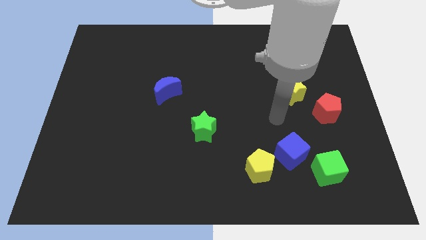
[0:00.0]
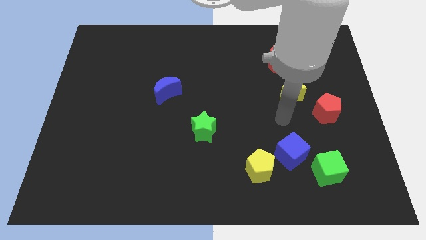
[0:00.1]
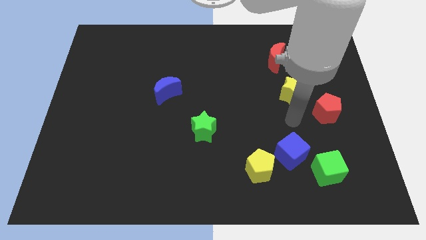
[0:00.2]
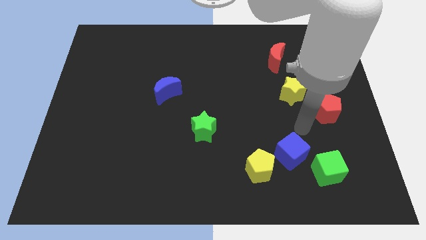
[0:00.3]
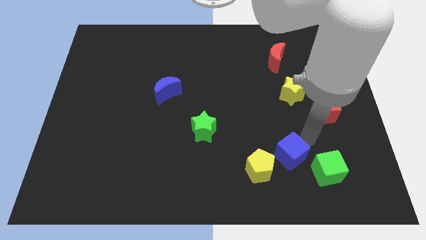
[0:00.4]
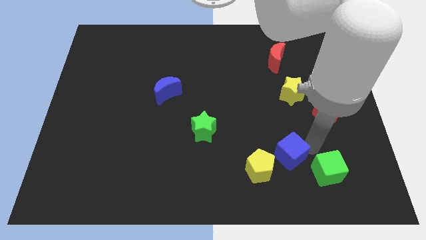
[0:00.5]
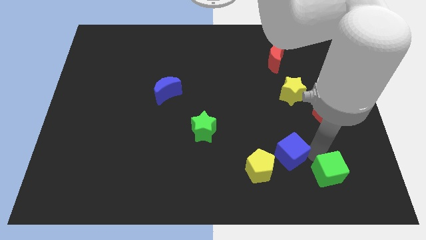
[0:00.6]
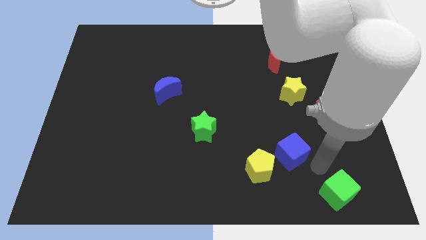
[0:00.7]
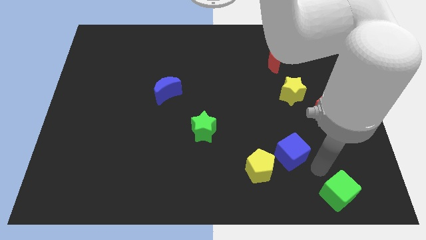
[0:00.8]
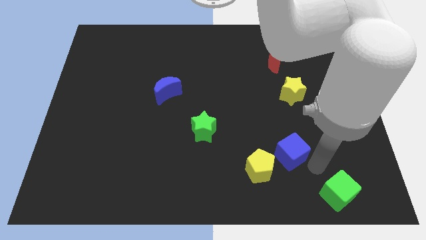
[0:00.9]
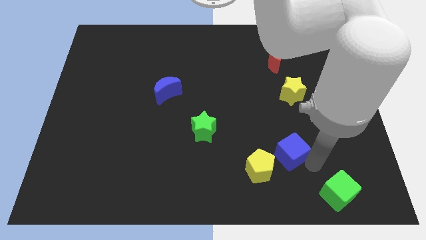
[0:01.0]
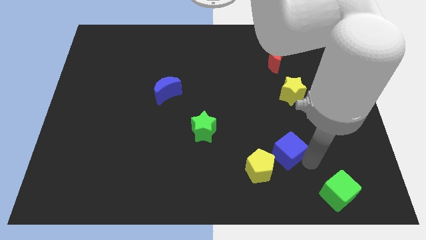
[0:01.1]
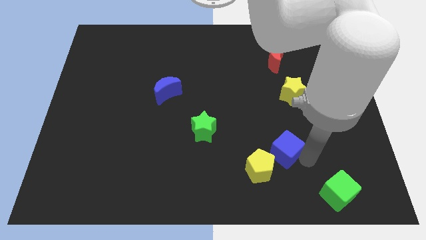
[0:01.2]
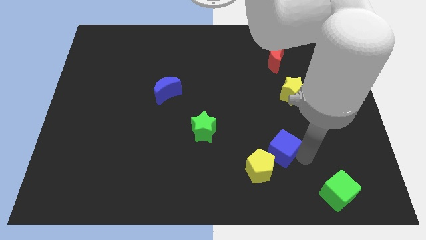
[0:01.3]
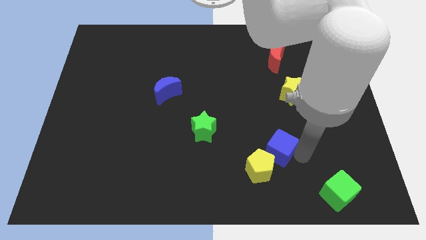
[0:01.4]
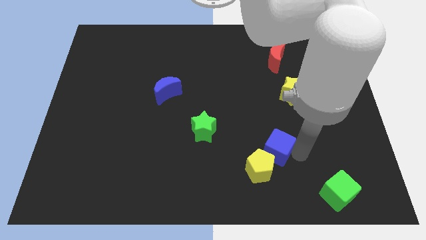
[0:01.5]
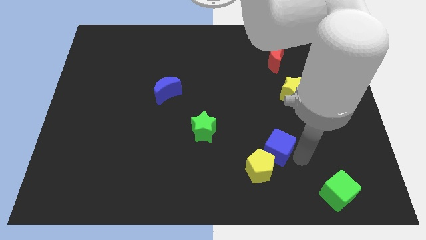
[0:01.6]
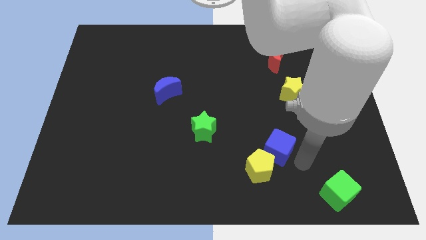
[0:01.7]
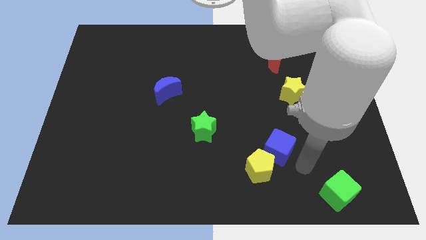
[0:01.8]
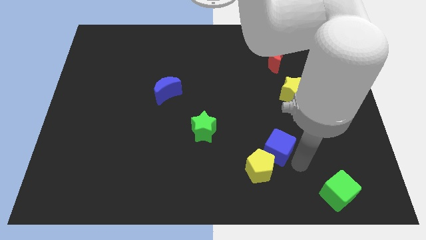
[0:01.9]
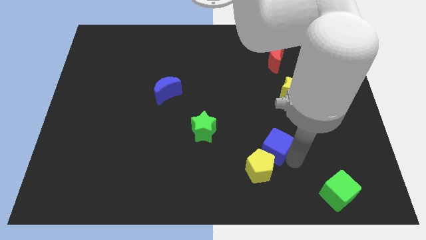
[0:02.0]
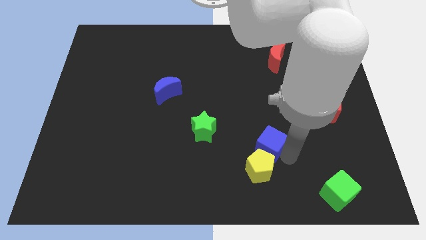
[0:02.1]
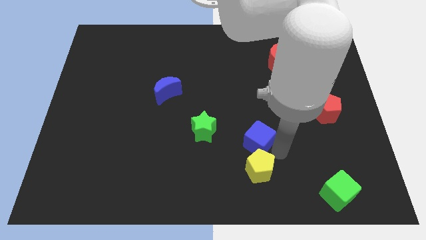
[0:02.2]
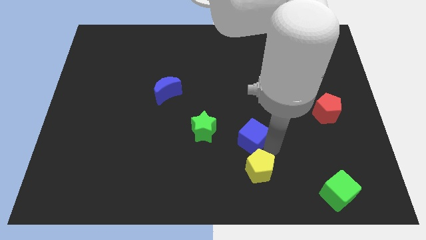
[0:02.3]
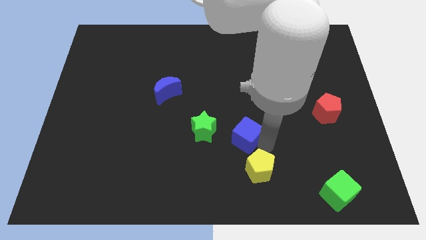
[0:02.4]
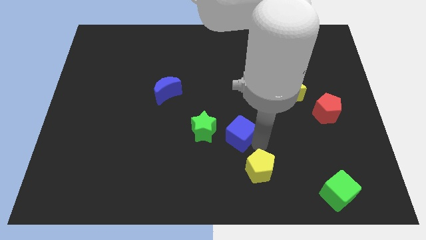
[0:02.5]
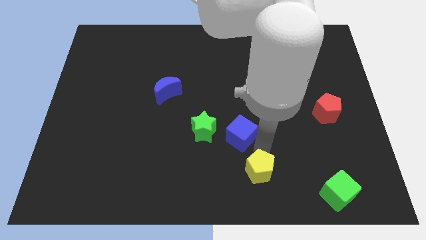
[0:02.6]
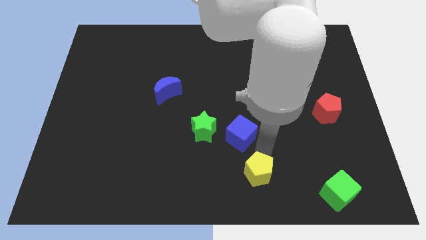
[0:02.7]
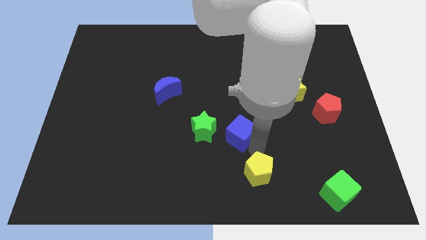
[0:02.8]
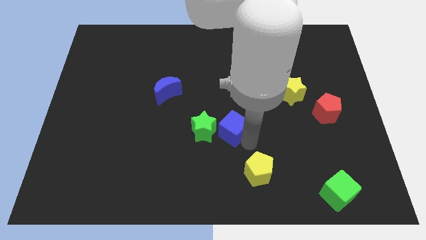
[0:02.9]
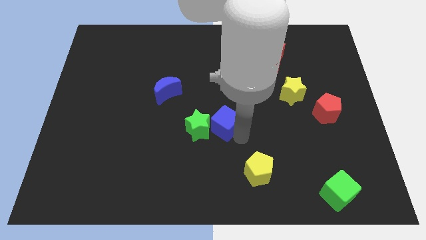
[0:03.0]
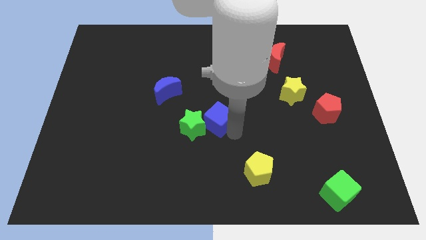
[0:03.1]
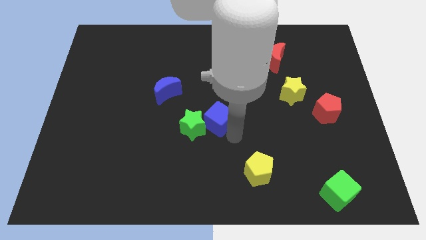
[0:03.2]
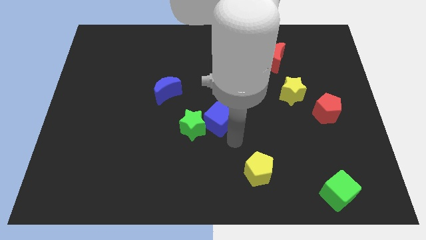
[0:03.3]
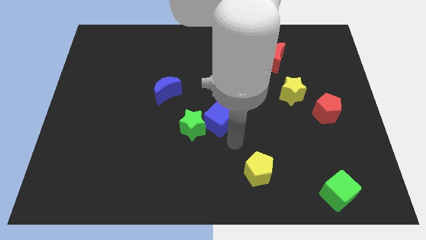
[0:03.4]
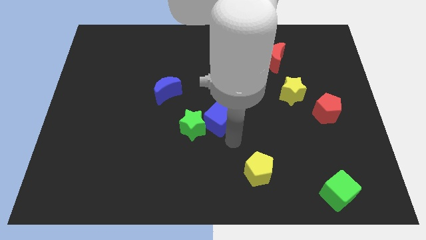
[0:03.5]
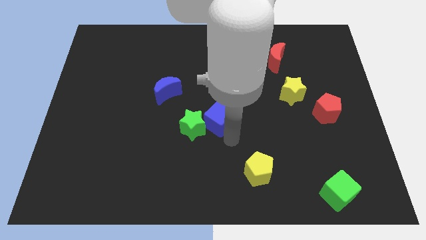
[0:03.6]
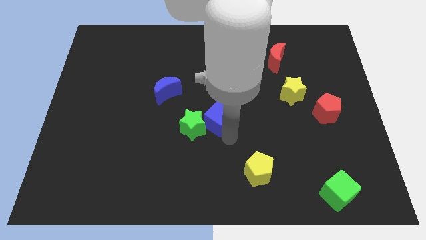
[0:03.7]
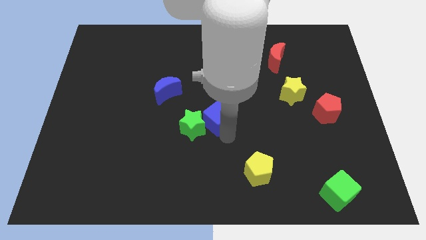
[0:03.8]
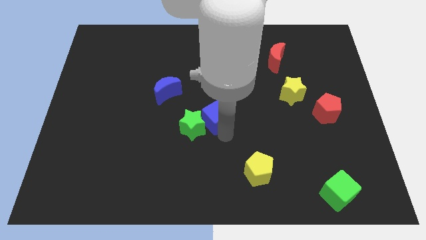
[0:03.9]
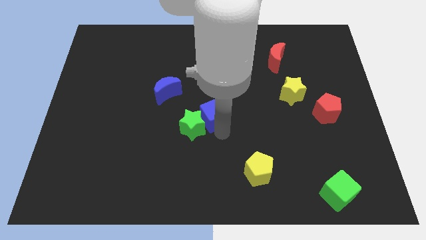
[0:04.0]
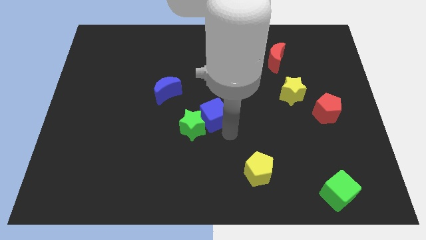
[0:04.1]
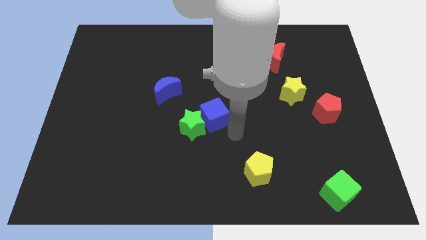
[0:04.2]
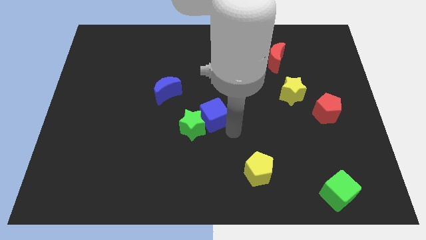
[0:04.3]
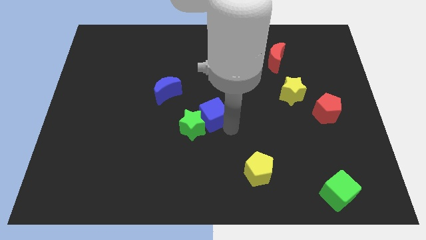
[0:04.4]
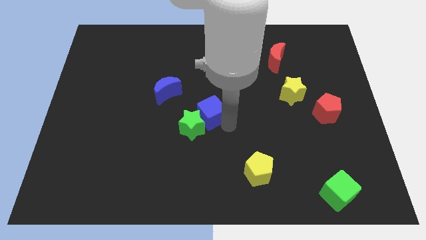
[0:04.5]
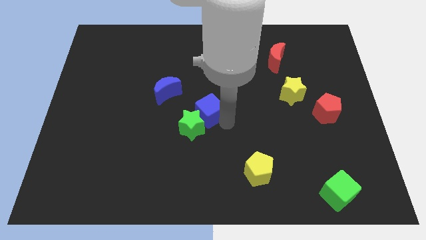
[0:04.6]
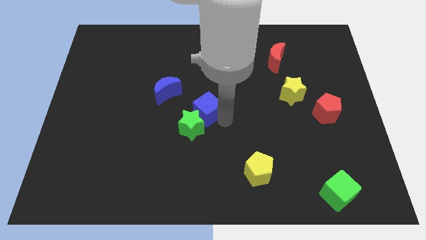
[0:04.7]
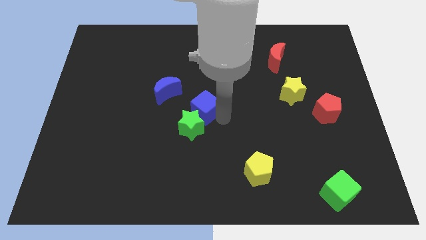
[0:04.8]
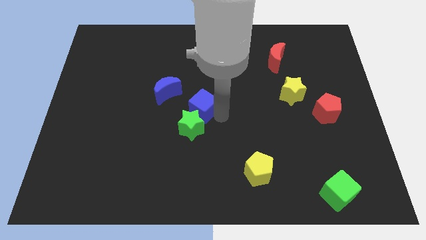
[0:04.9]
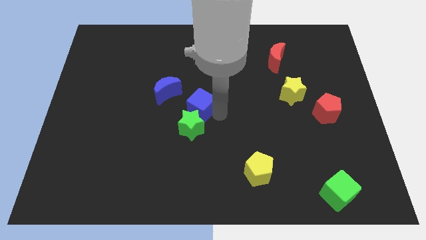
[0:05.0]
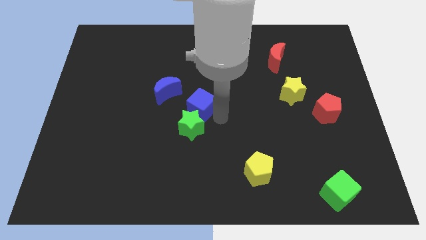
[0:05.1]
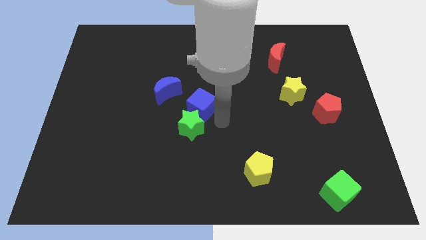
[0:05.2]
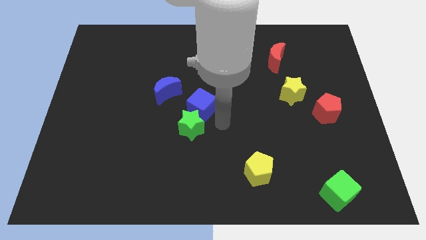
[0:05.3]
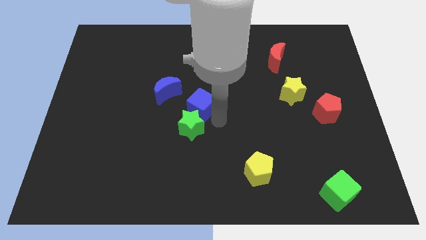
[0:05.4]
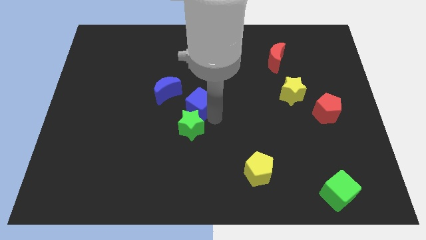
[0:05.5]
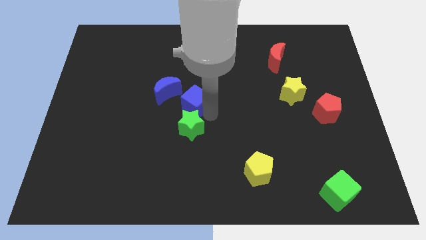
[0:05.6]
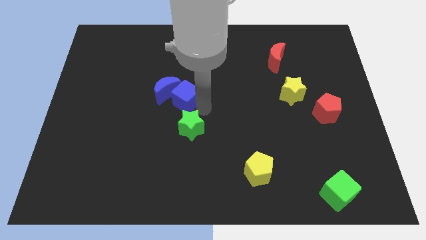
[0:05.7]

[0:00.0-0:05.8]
push the blue cube next to the blue moon

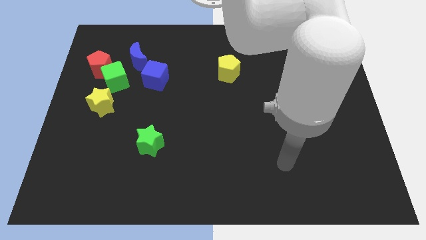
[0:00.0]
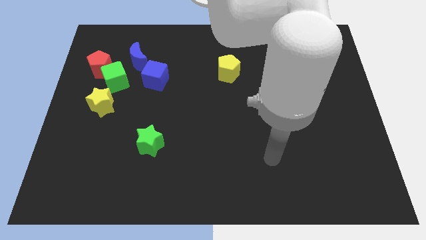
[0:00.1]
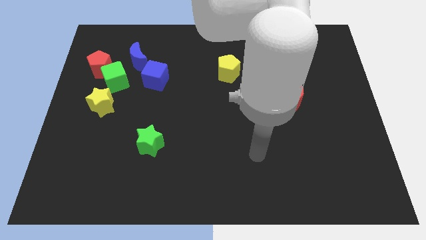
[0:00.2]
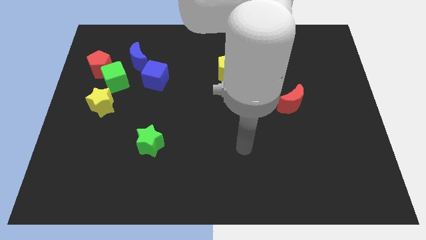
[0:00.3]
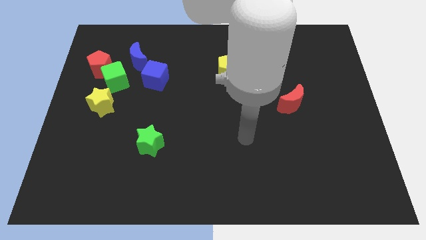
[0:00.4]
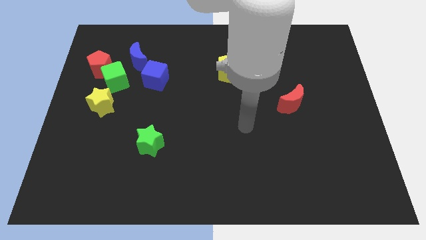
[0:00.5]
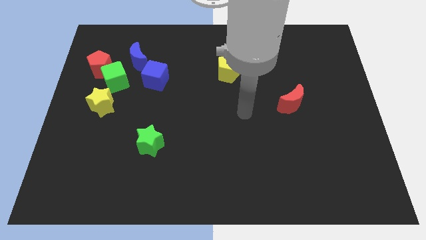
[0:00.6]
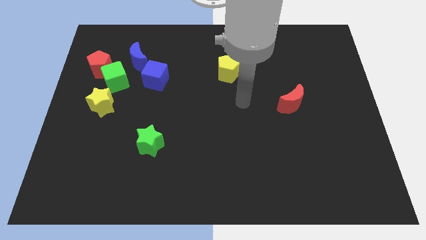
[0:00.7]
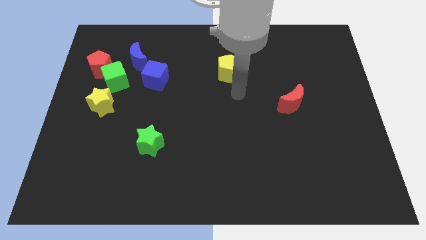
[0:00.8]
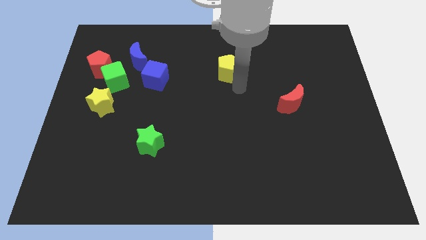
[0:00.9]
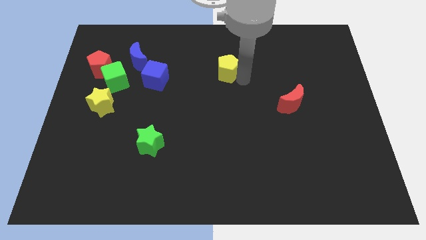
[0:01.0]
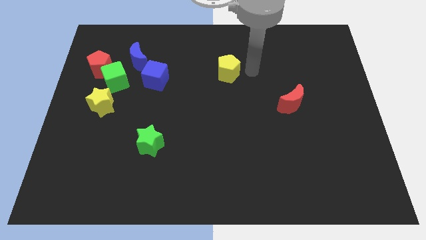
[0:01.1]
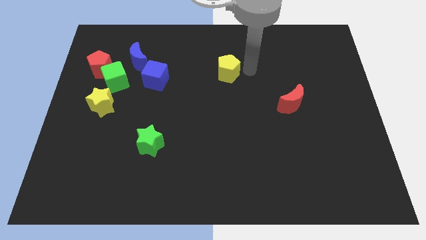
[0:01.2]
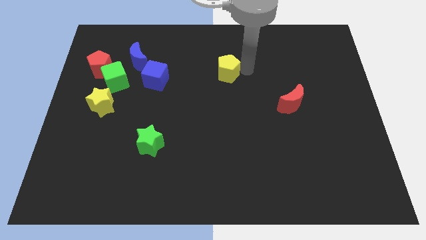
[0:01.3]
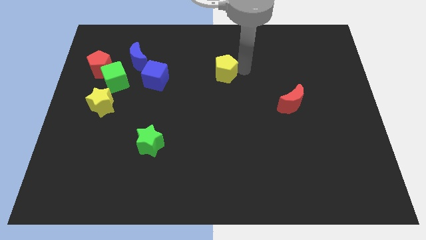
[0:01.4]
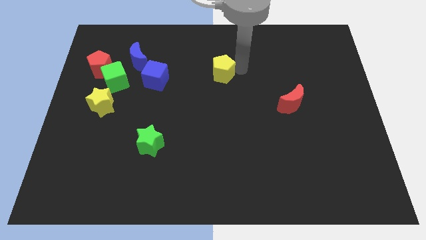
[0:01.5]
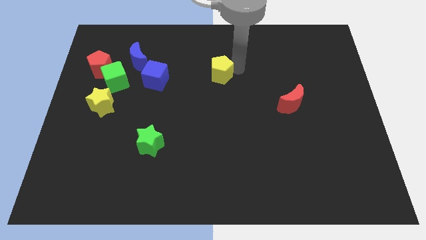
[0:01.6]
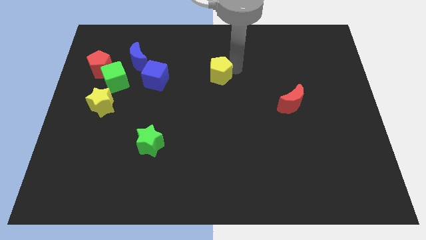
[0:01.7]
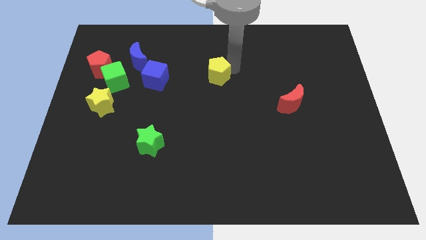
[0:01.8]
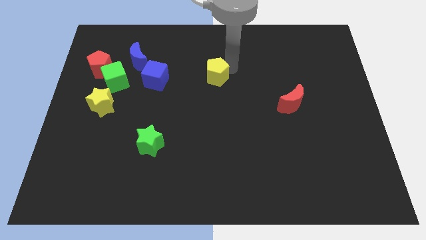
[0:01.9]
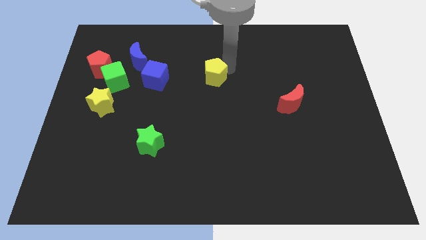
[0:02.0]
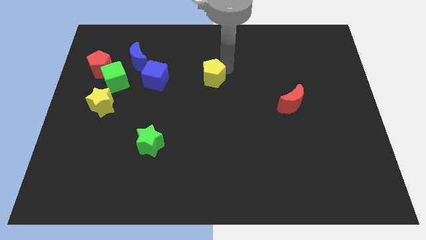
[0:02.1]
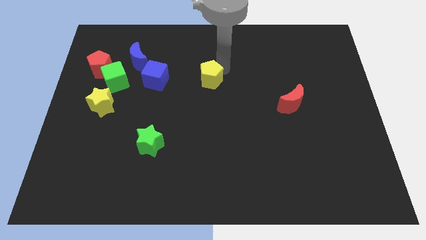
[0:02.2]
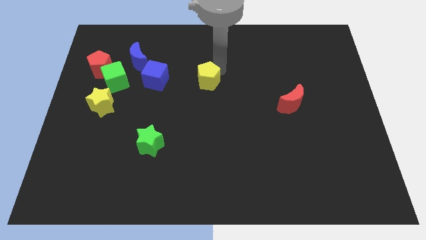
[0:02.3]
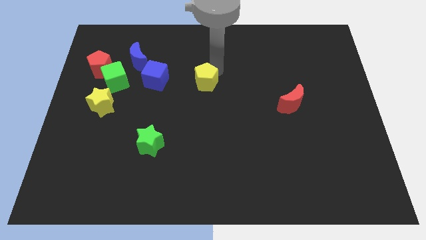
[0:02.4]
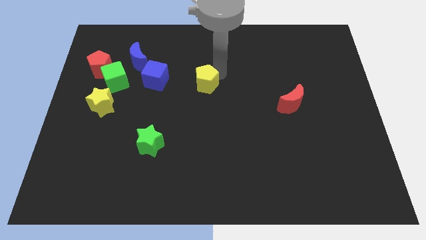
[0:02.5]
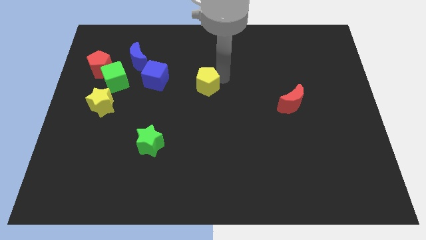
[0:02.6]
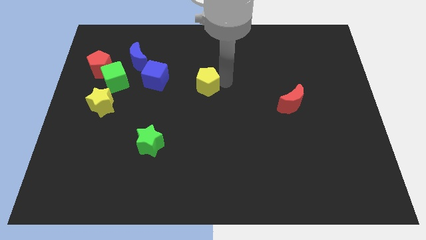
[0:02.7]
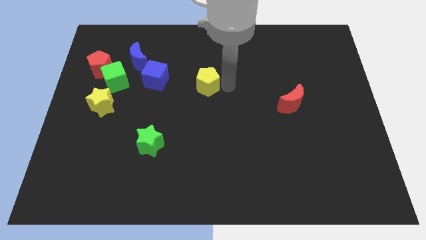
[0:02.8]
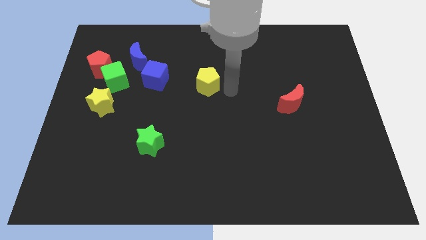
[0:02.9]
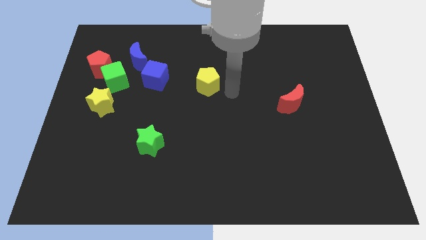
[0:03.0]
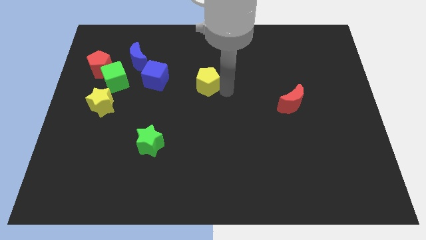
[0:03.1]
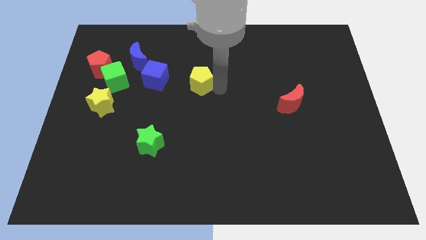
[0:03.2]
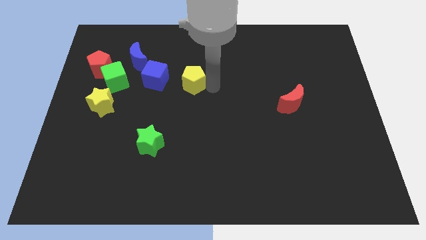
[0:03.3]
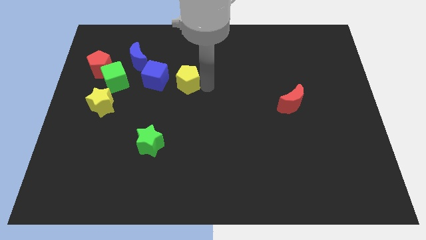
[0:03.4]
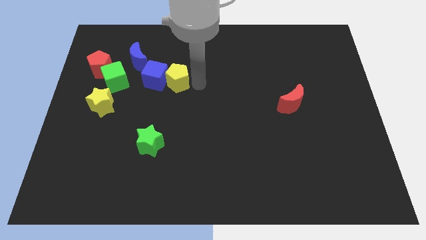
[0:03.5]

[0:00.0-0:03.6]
put the yellow pentagon next to the blue cube
